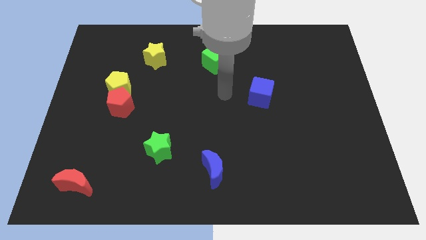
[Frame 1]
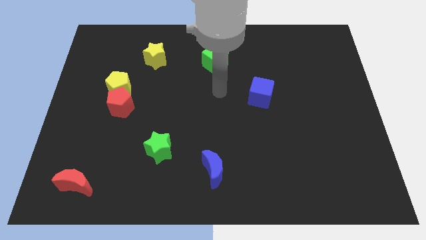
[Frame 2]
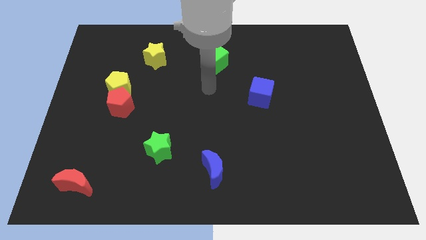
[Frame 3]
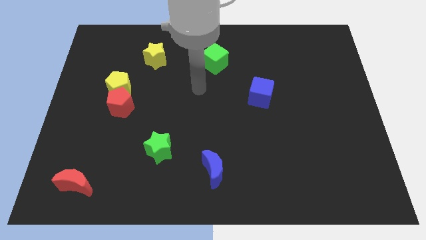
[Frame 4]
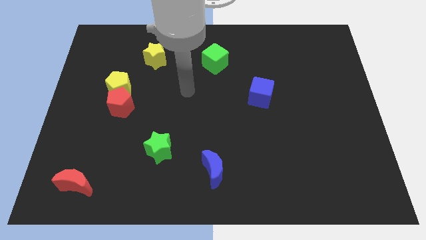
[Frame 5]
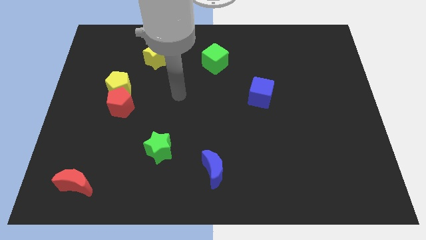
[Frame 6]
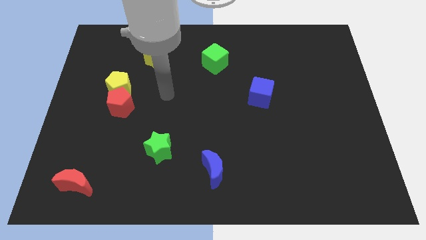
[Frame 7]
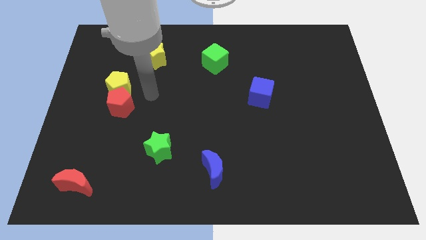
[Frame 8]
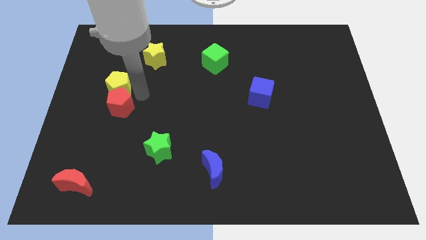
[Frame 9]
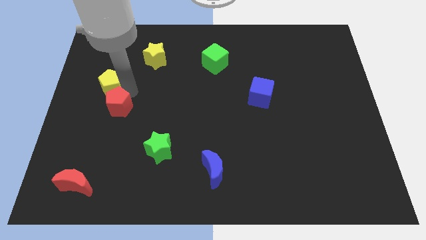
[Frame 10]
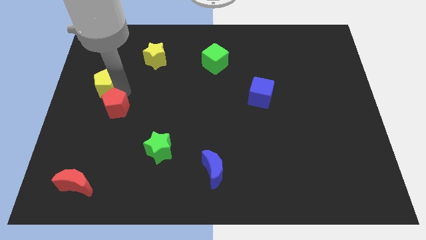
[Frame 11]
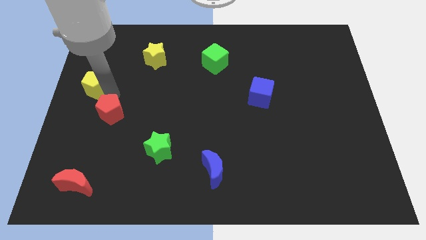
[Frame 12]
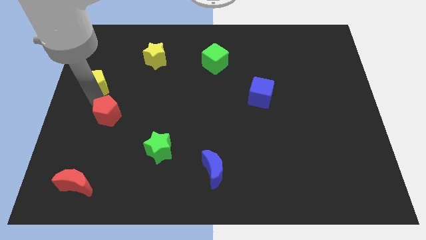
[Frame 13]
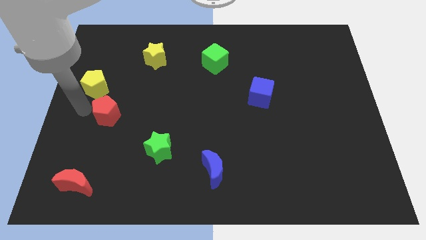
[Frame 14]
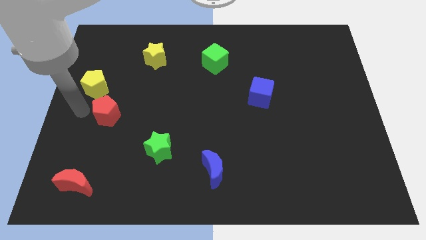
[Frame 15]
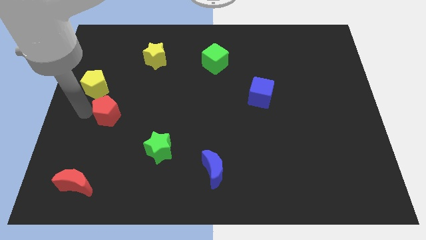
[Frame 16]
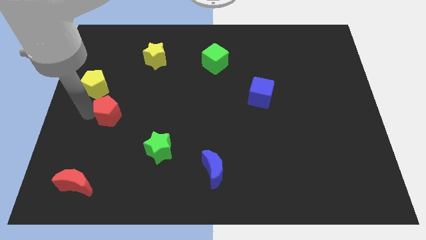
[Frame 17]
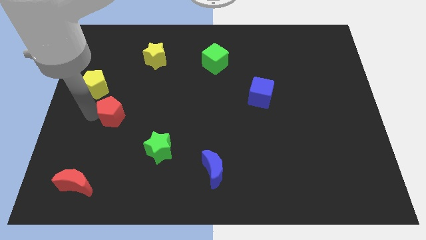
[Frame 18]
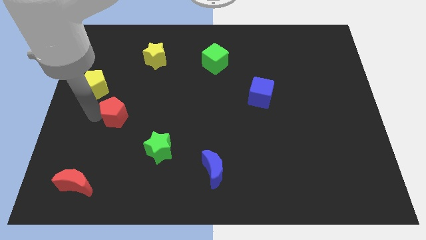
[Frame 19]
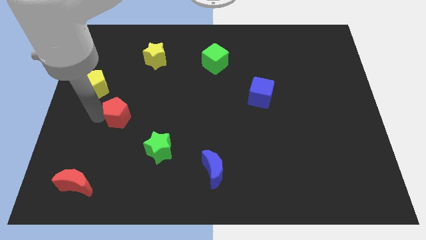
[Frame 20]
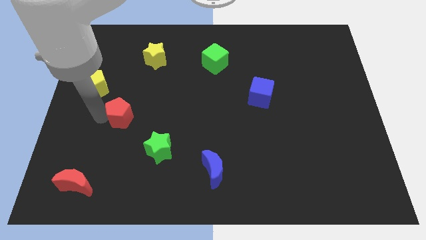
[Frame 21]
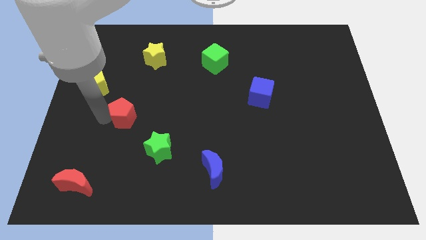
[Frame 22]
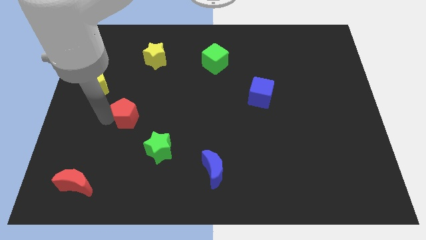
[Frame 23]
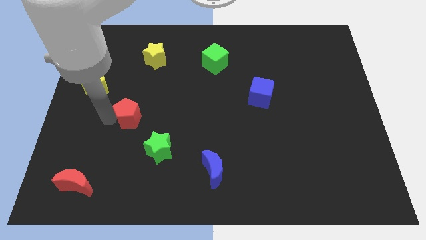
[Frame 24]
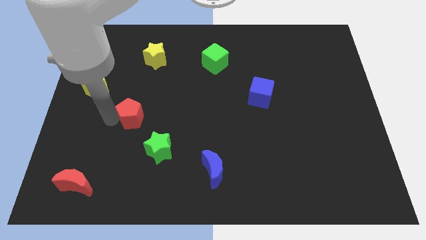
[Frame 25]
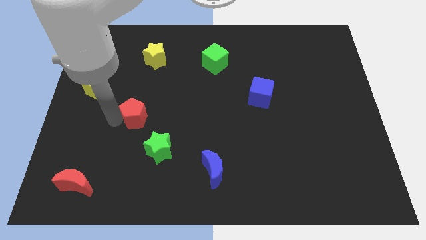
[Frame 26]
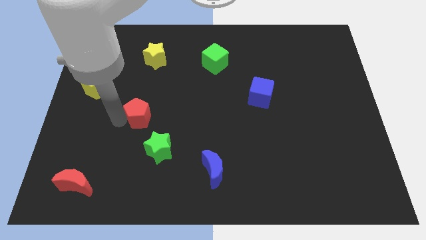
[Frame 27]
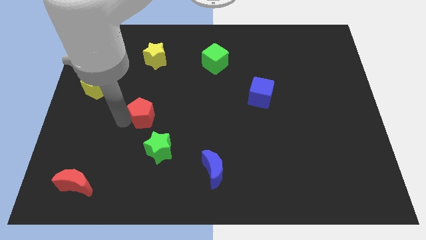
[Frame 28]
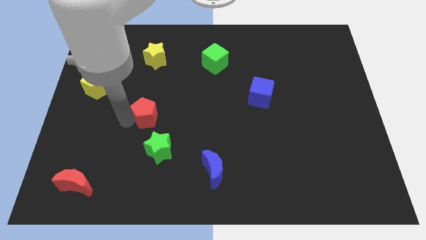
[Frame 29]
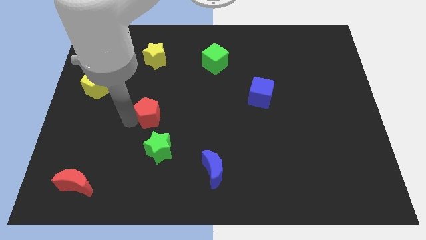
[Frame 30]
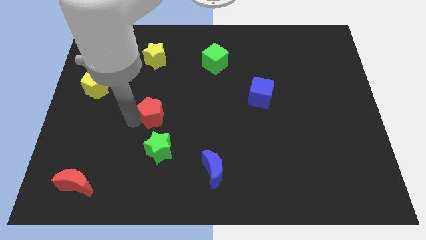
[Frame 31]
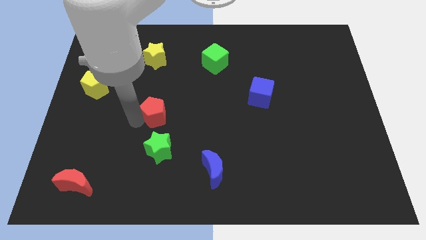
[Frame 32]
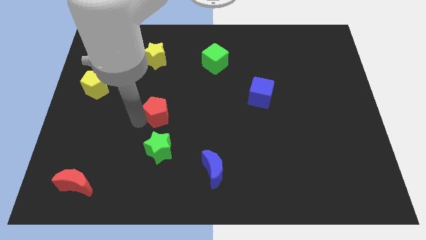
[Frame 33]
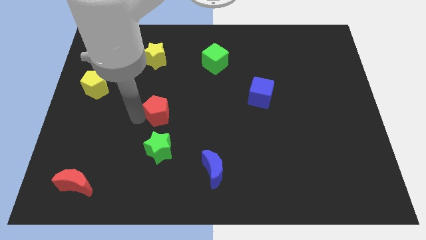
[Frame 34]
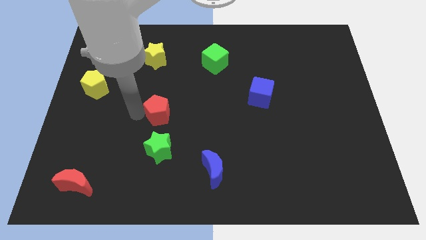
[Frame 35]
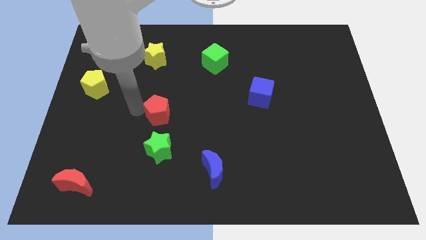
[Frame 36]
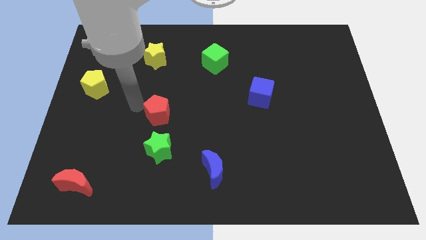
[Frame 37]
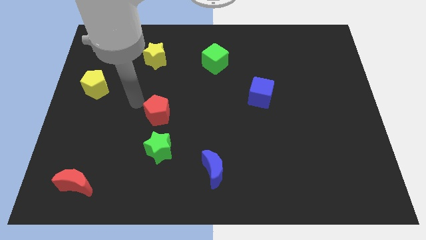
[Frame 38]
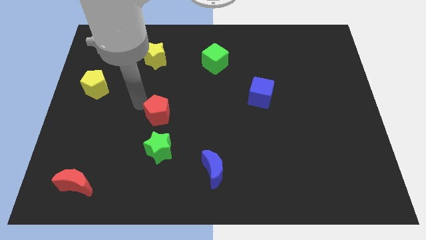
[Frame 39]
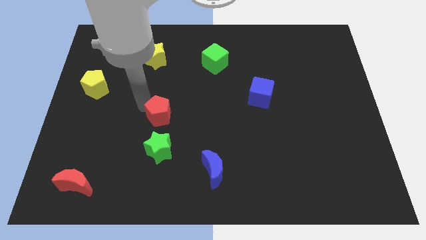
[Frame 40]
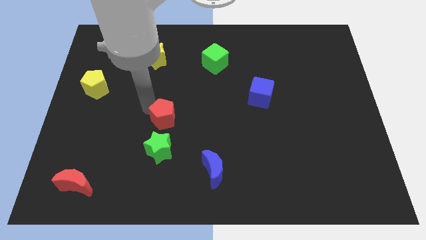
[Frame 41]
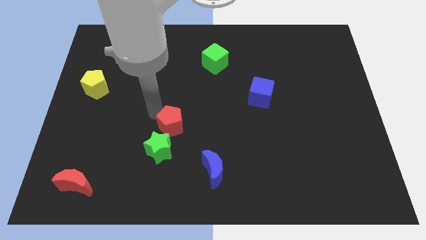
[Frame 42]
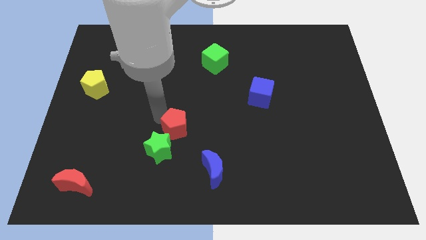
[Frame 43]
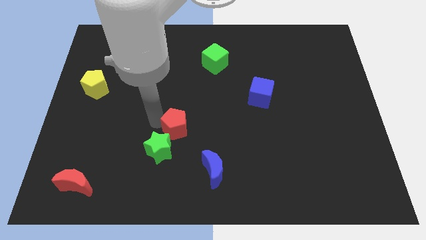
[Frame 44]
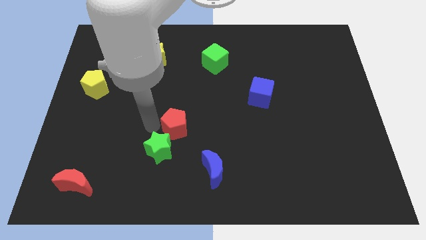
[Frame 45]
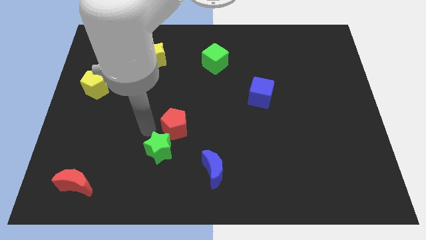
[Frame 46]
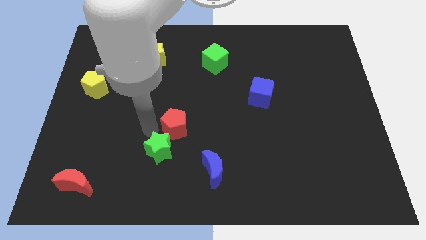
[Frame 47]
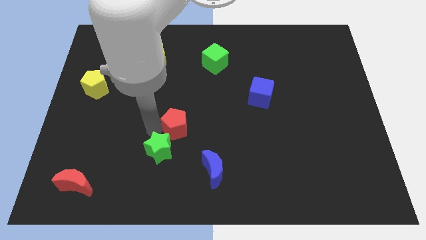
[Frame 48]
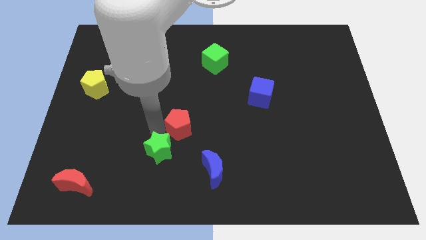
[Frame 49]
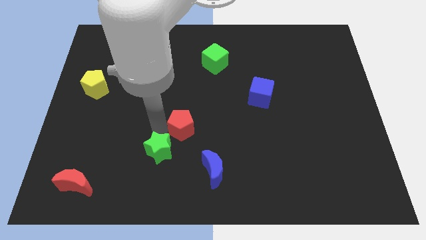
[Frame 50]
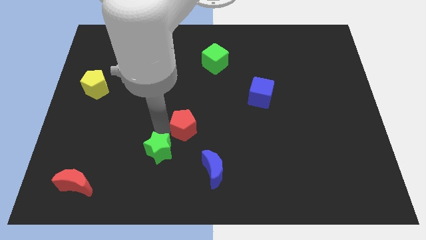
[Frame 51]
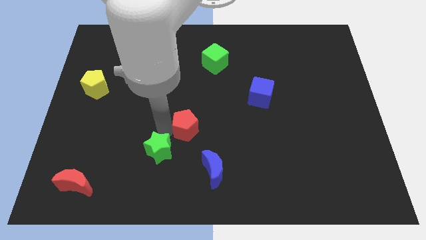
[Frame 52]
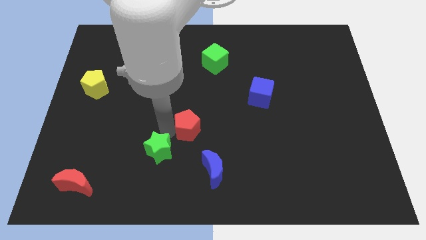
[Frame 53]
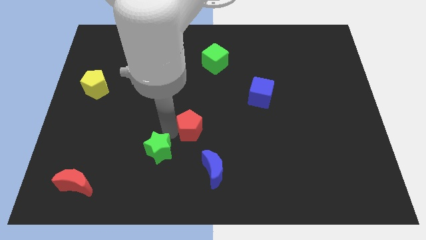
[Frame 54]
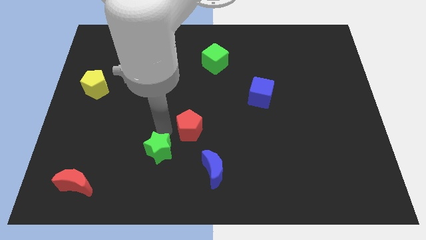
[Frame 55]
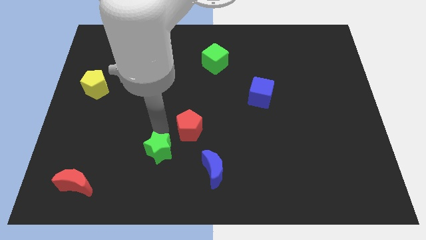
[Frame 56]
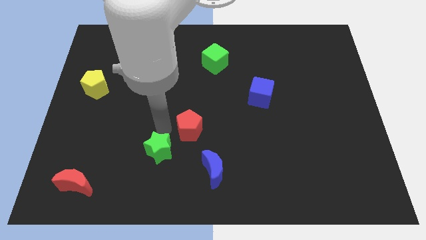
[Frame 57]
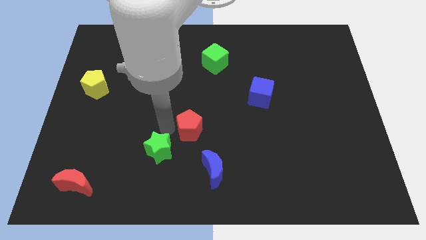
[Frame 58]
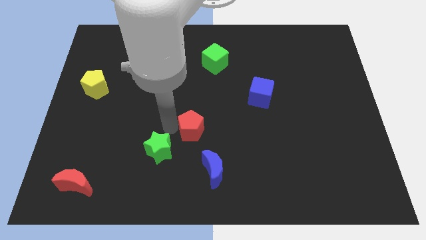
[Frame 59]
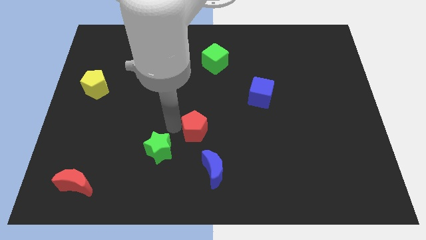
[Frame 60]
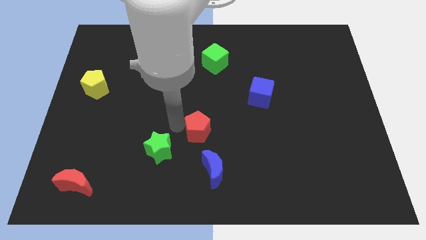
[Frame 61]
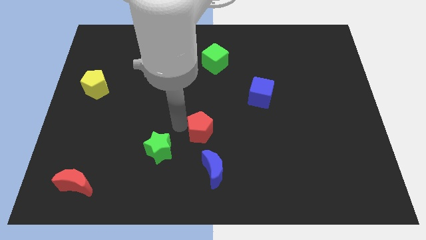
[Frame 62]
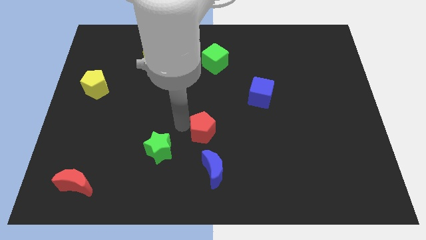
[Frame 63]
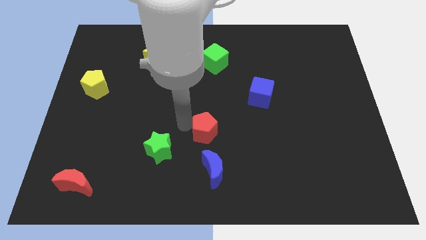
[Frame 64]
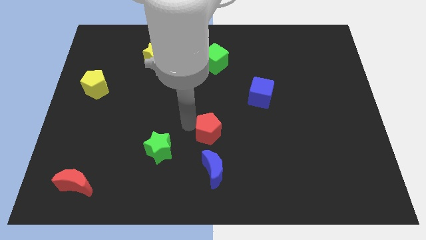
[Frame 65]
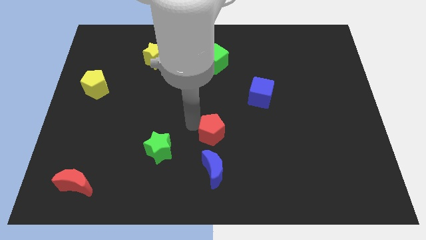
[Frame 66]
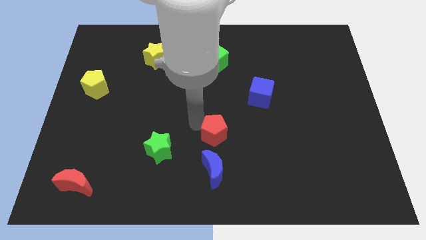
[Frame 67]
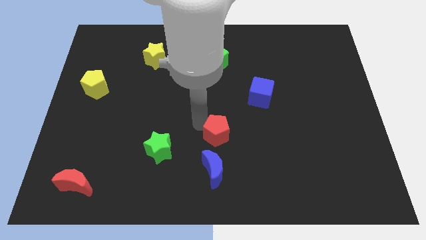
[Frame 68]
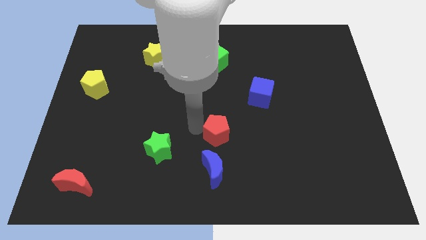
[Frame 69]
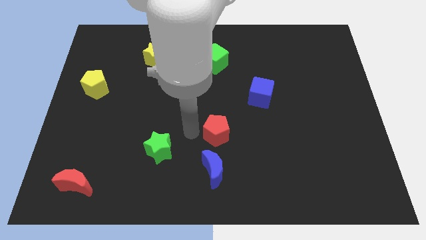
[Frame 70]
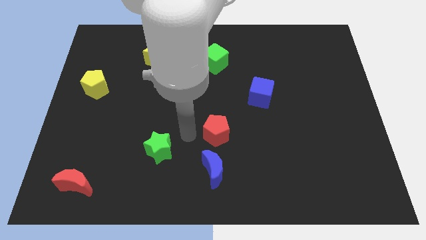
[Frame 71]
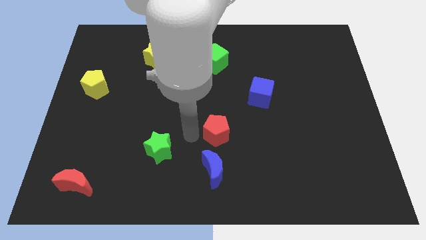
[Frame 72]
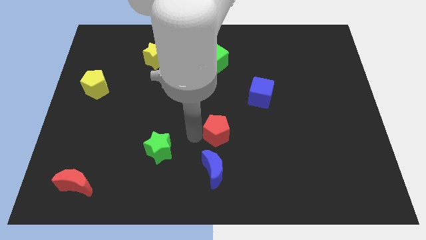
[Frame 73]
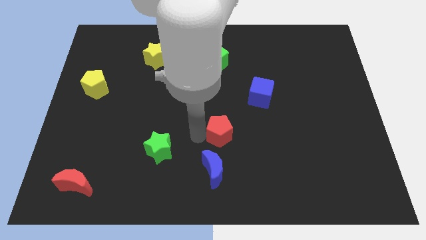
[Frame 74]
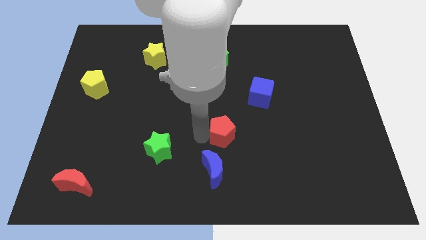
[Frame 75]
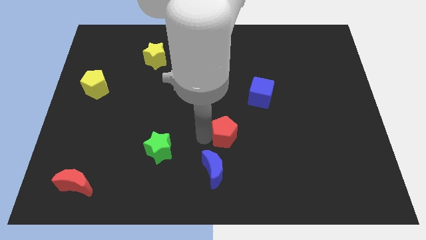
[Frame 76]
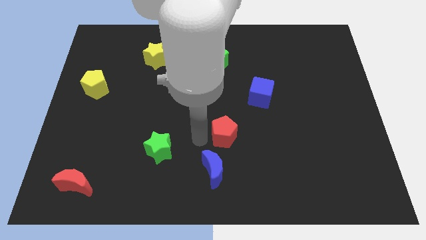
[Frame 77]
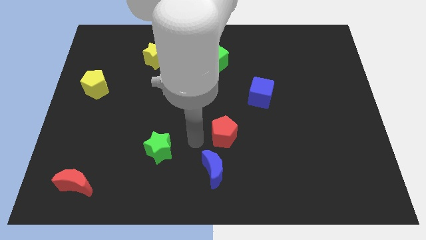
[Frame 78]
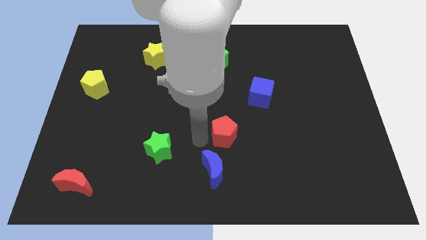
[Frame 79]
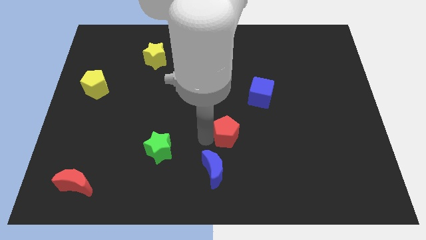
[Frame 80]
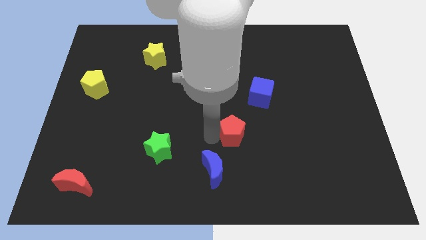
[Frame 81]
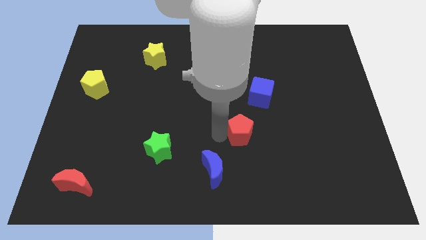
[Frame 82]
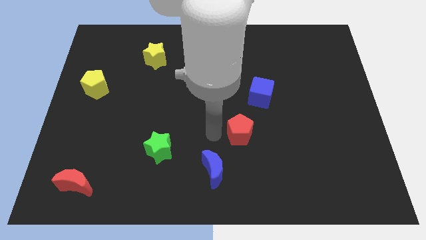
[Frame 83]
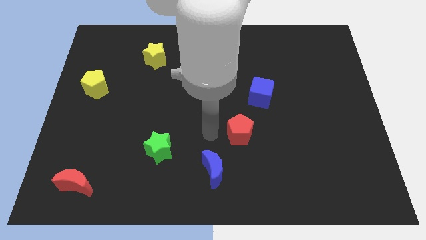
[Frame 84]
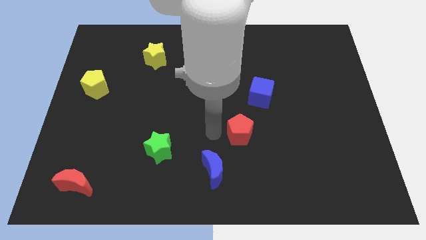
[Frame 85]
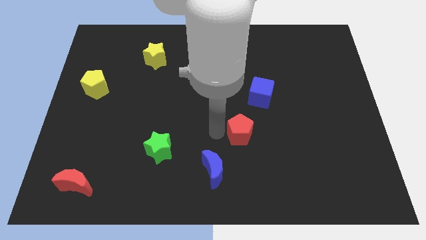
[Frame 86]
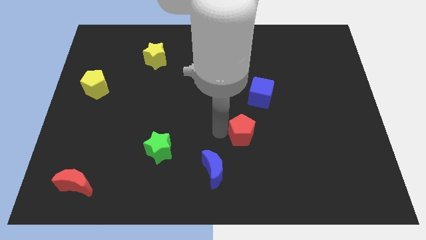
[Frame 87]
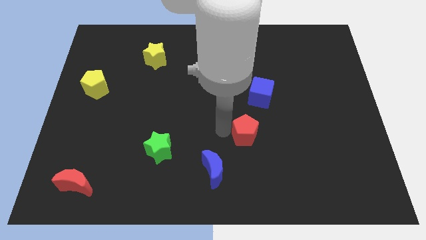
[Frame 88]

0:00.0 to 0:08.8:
slide the red pentagon to the bottom of the blue cube
